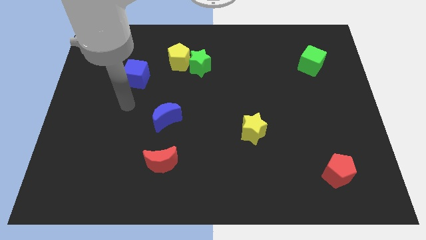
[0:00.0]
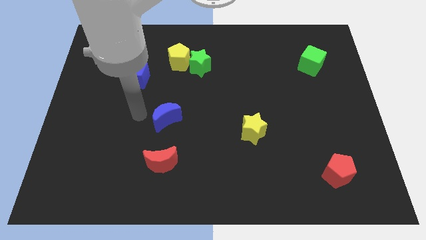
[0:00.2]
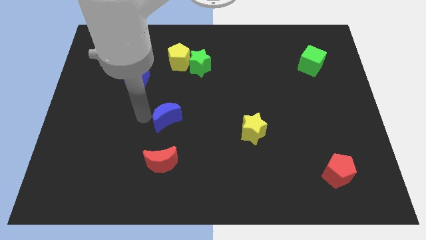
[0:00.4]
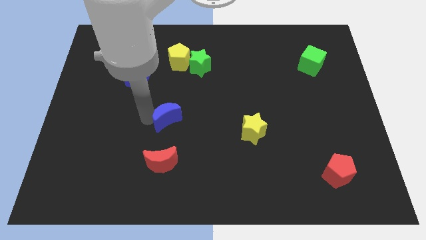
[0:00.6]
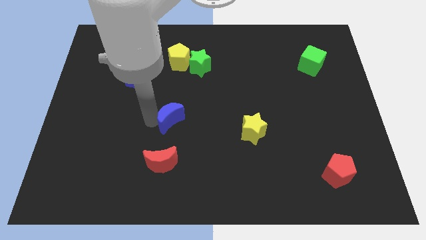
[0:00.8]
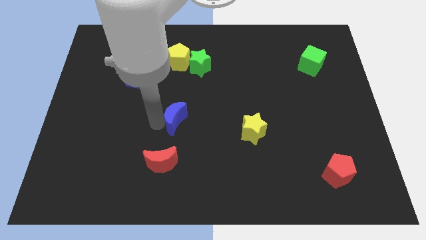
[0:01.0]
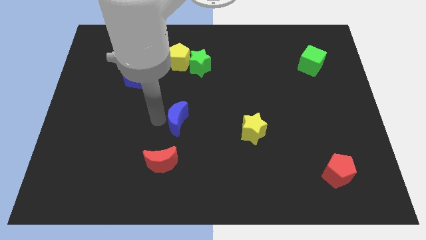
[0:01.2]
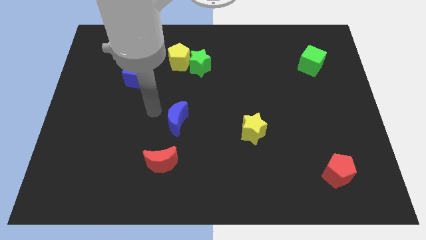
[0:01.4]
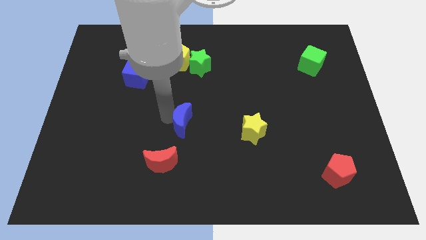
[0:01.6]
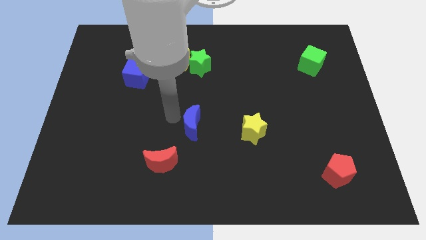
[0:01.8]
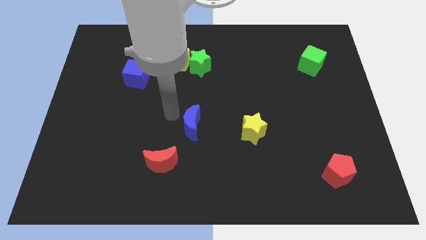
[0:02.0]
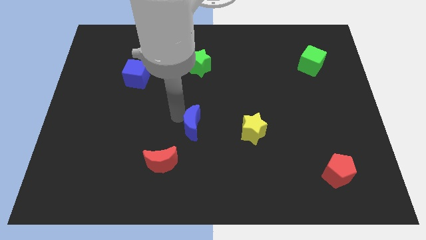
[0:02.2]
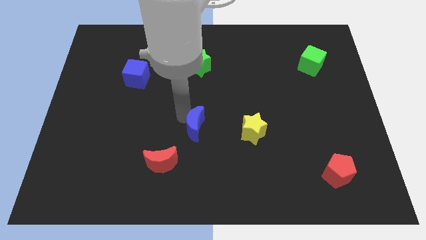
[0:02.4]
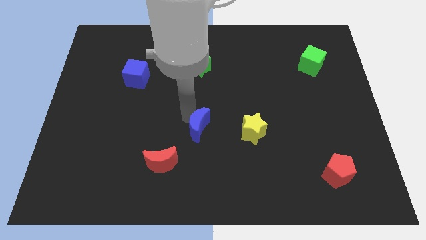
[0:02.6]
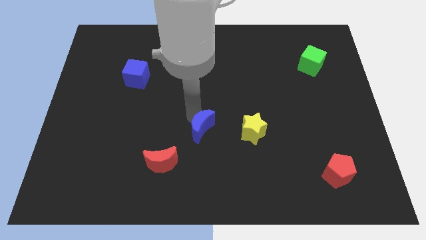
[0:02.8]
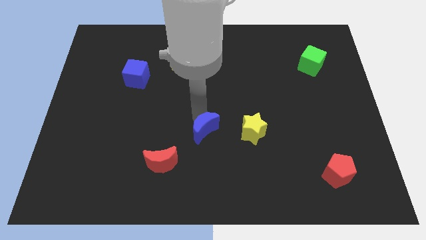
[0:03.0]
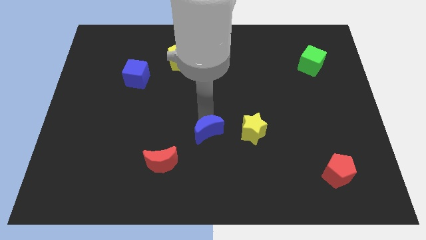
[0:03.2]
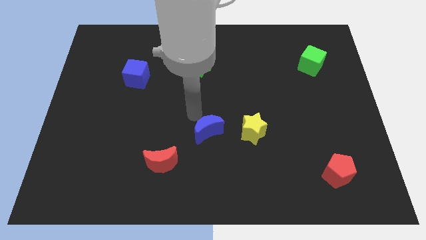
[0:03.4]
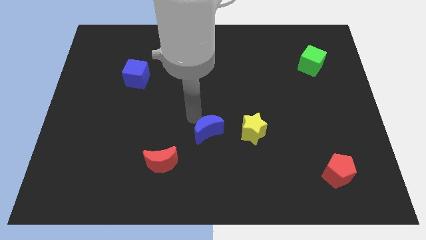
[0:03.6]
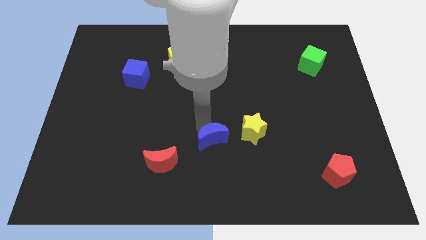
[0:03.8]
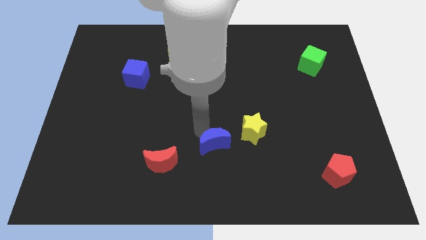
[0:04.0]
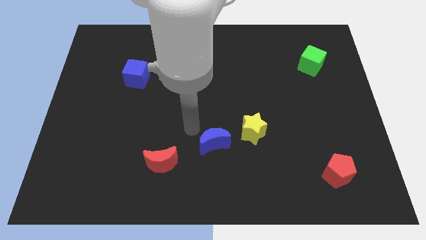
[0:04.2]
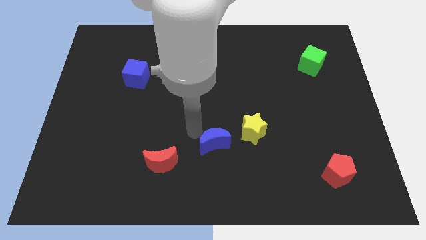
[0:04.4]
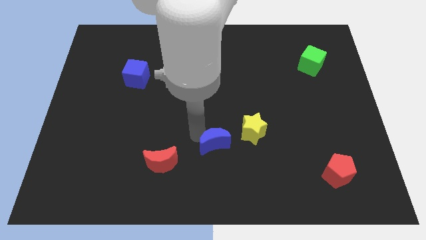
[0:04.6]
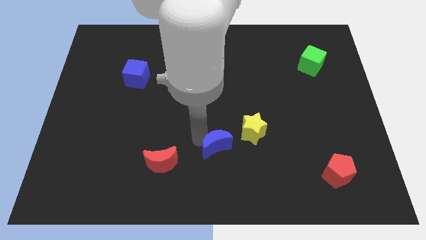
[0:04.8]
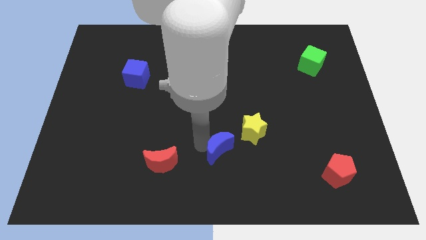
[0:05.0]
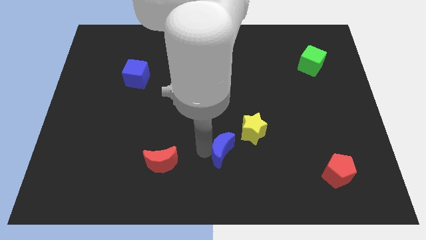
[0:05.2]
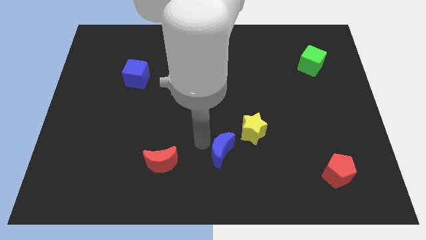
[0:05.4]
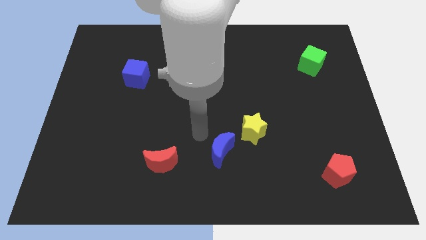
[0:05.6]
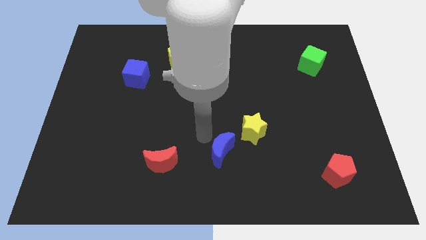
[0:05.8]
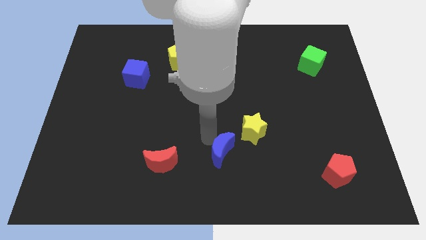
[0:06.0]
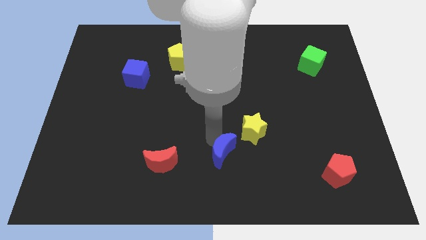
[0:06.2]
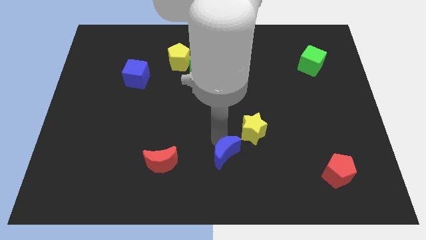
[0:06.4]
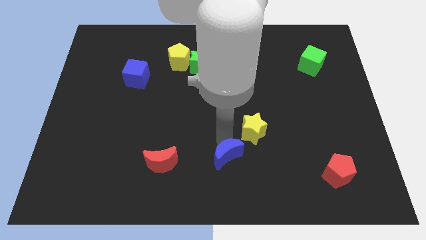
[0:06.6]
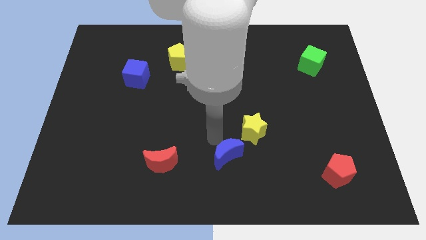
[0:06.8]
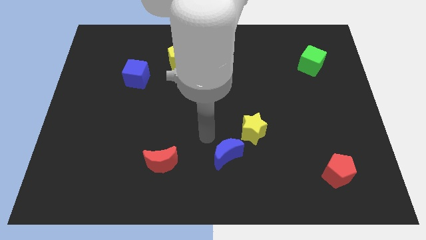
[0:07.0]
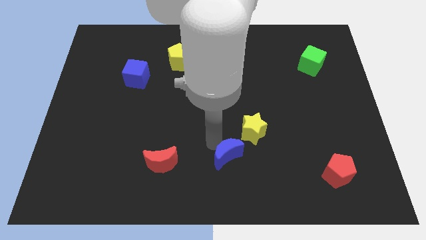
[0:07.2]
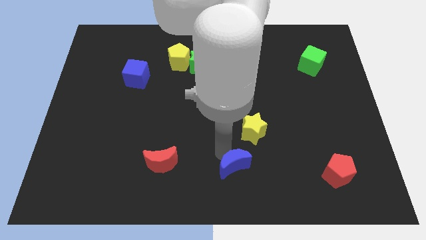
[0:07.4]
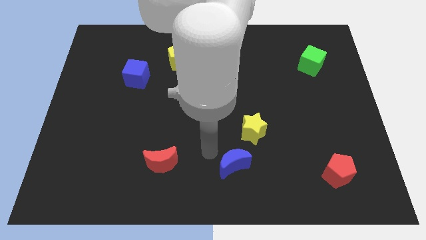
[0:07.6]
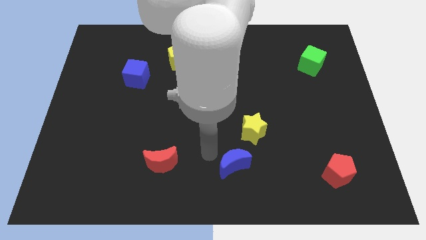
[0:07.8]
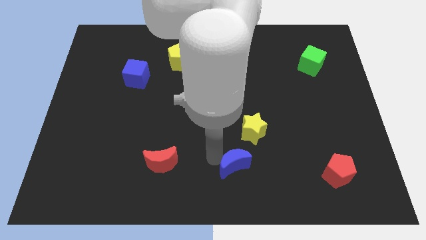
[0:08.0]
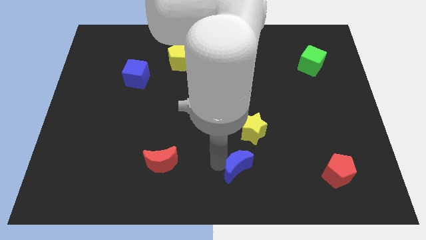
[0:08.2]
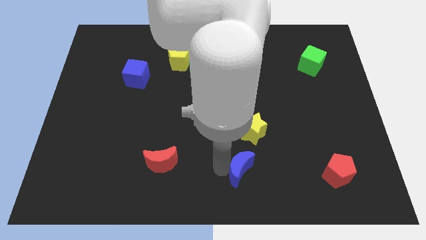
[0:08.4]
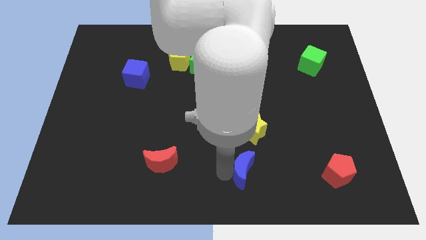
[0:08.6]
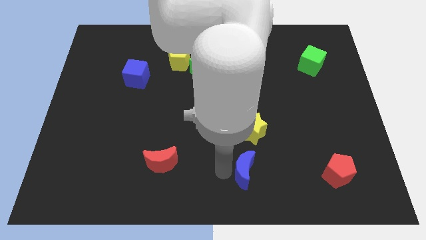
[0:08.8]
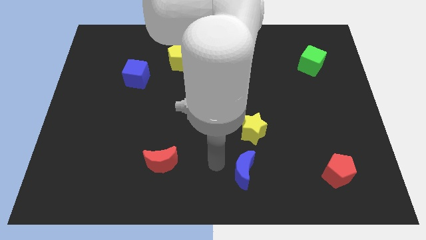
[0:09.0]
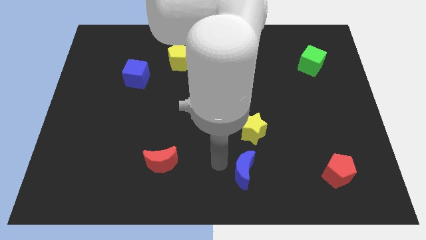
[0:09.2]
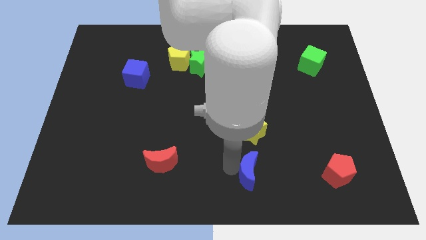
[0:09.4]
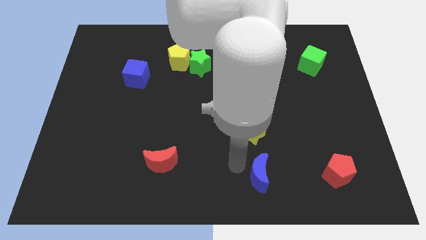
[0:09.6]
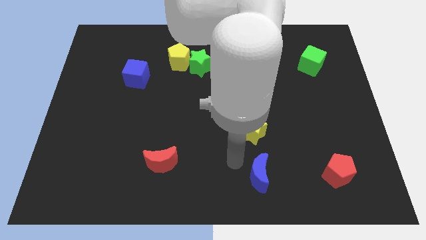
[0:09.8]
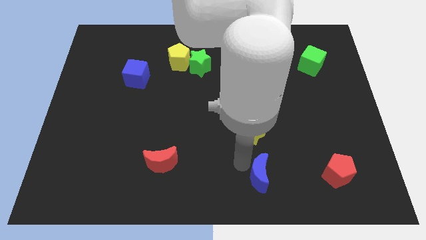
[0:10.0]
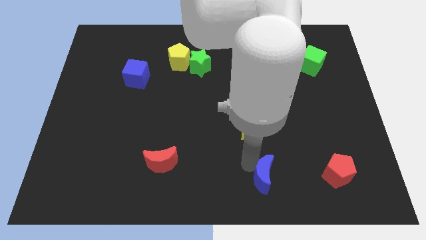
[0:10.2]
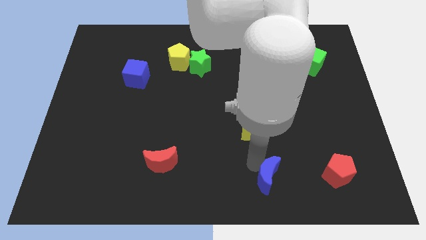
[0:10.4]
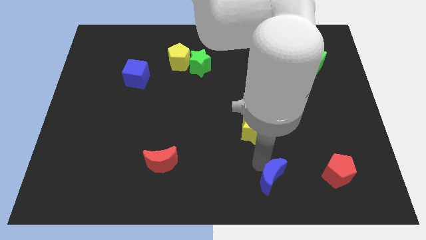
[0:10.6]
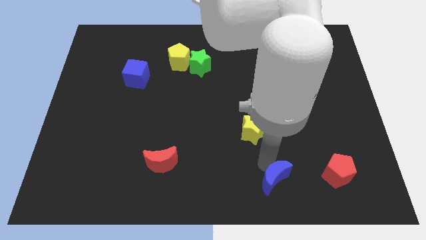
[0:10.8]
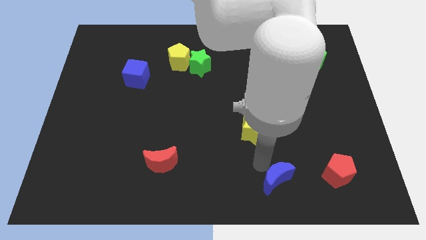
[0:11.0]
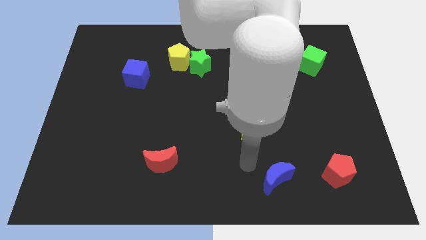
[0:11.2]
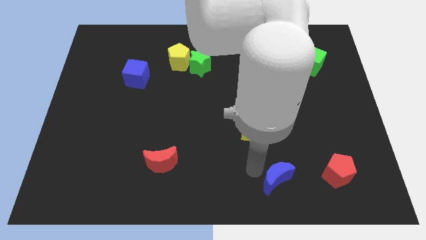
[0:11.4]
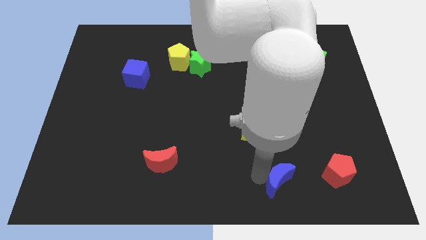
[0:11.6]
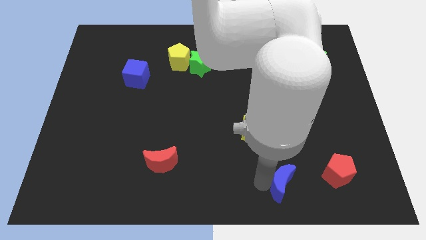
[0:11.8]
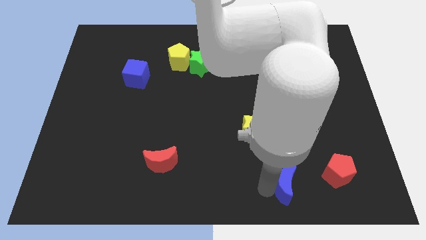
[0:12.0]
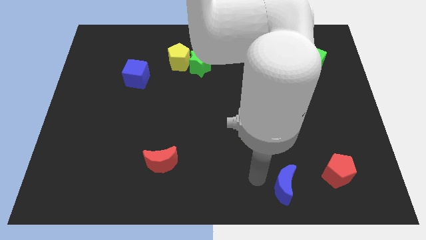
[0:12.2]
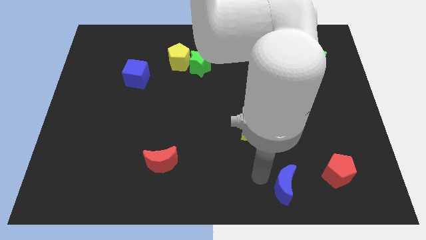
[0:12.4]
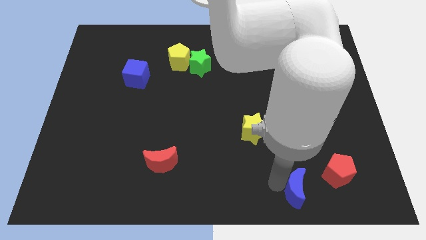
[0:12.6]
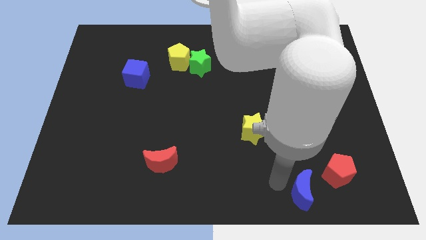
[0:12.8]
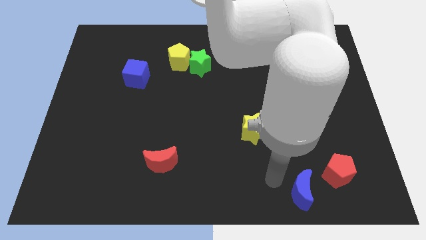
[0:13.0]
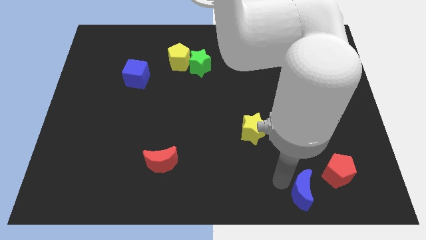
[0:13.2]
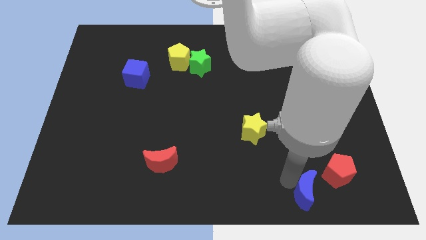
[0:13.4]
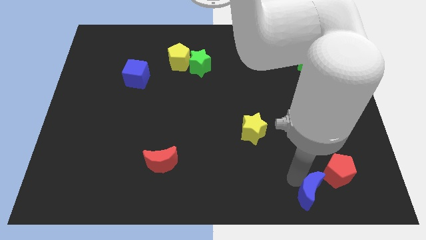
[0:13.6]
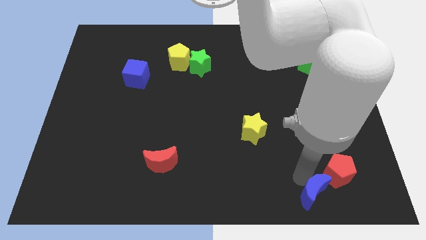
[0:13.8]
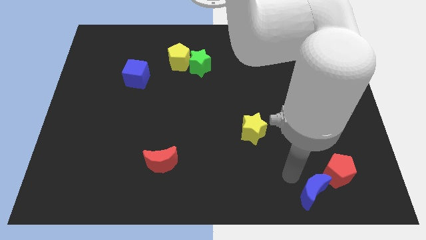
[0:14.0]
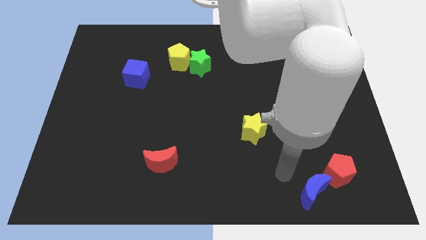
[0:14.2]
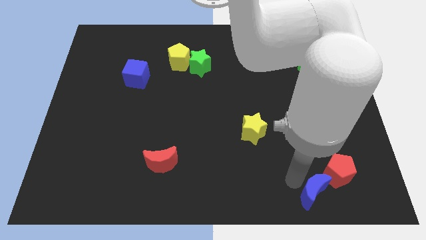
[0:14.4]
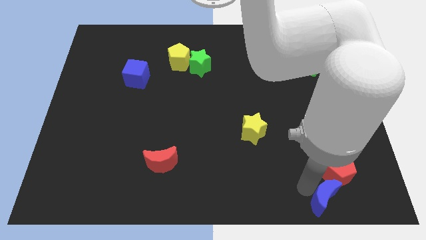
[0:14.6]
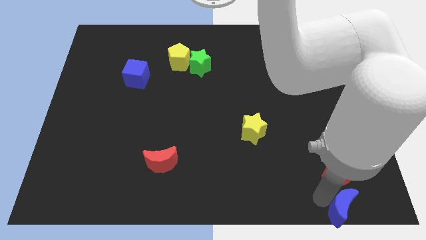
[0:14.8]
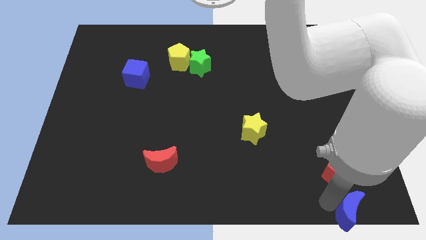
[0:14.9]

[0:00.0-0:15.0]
move the blue moon to the bottom right corner
